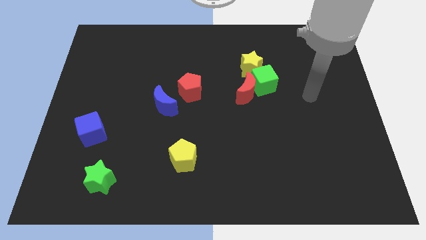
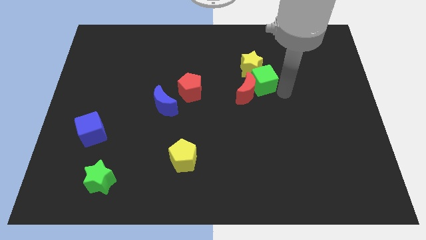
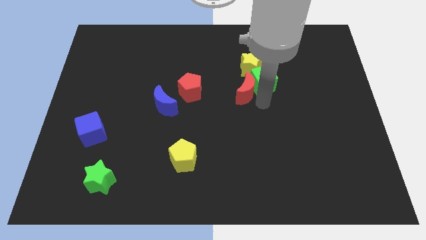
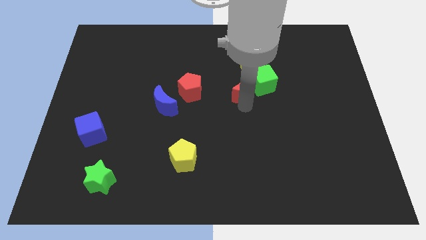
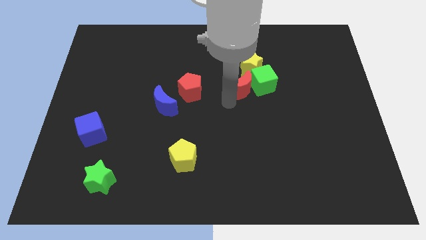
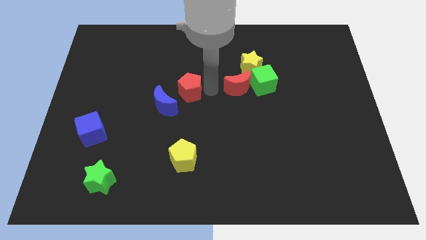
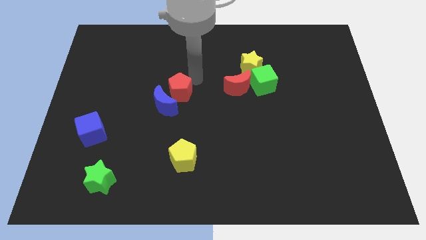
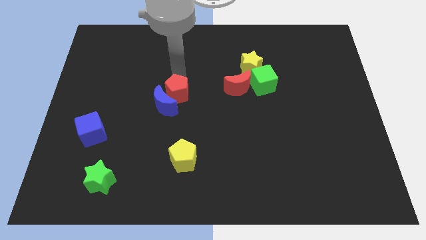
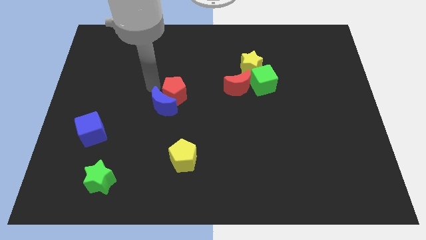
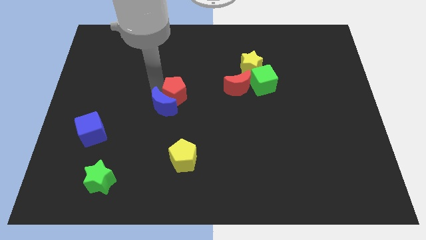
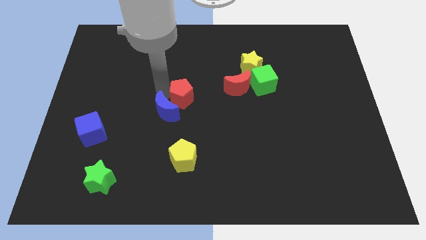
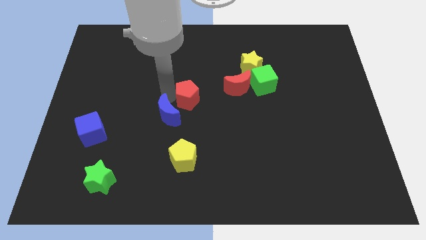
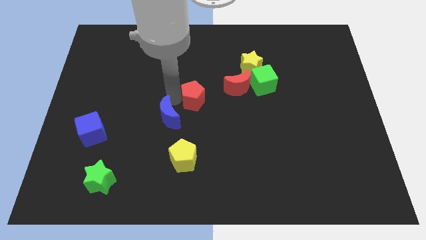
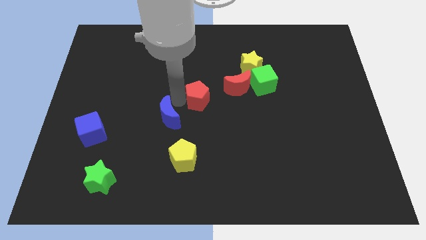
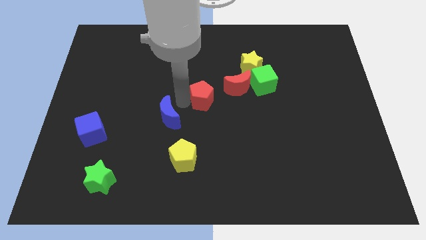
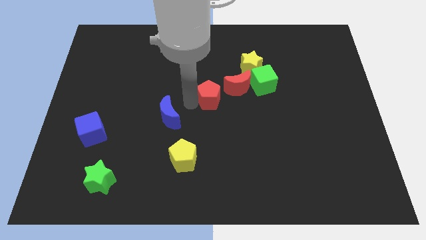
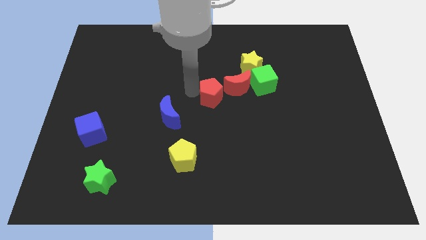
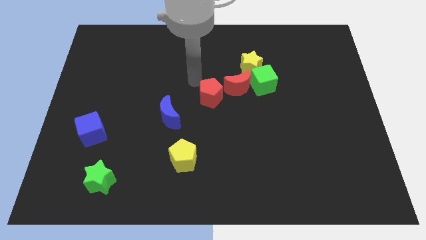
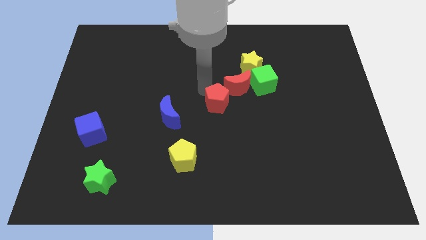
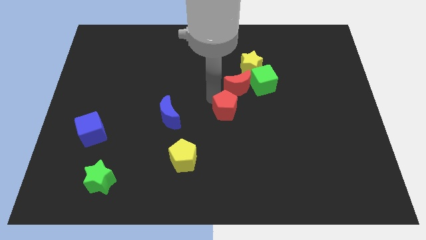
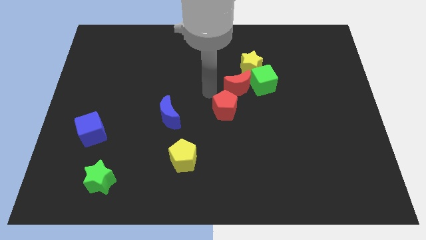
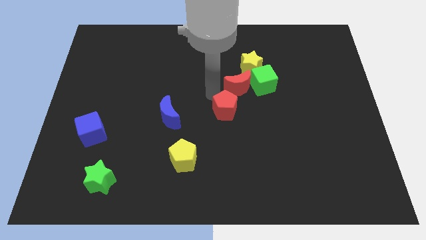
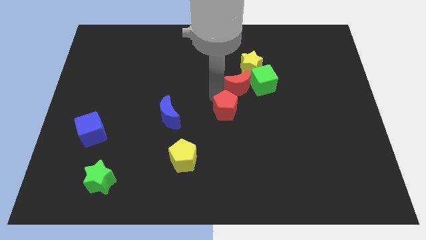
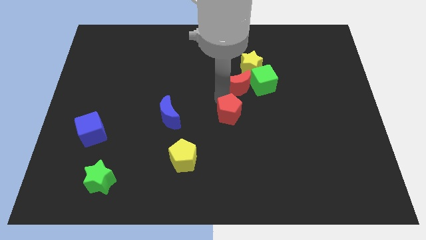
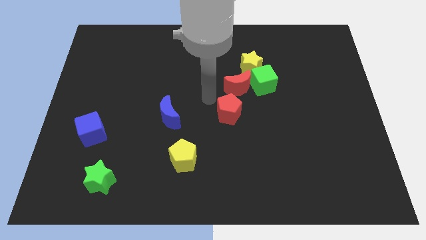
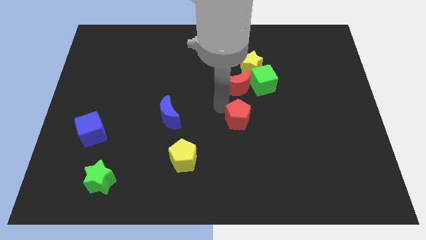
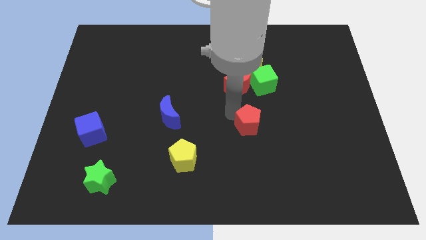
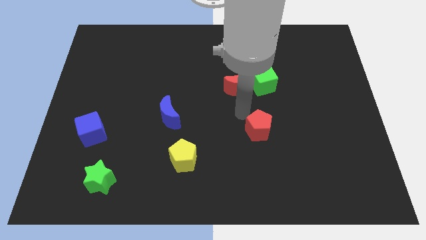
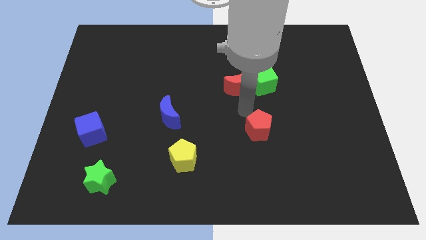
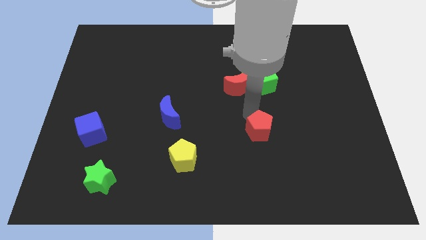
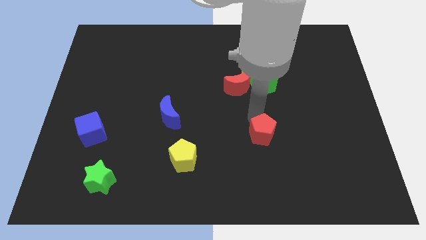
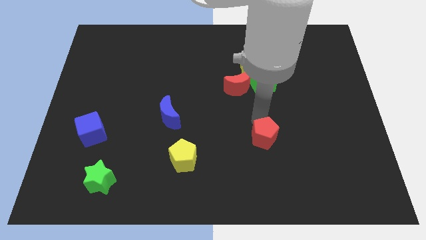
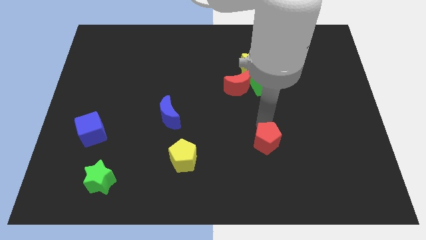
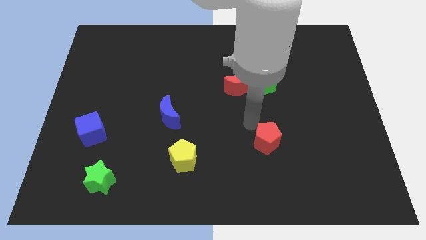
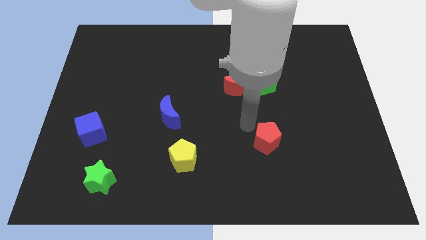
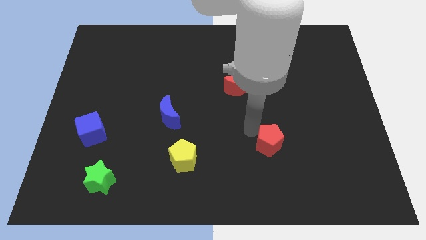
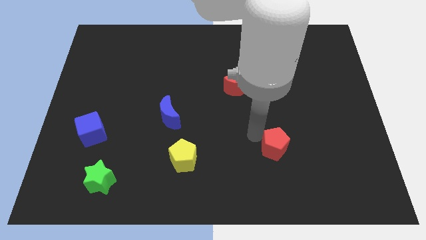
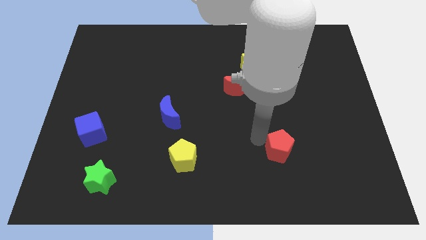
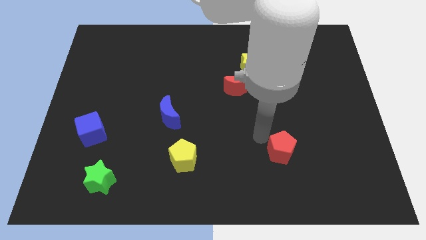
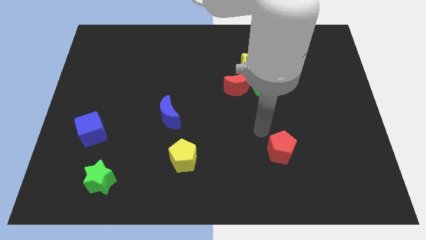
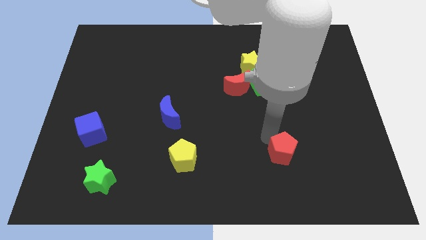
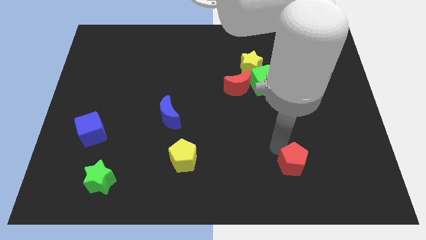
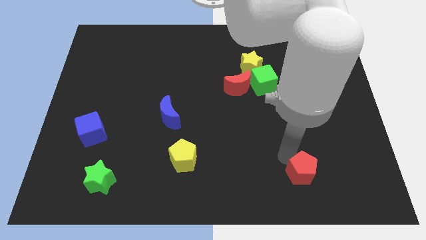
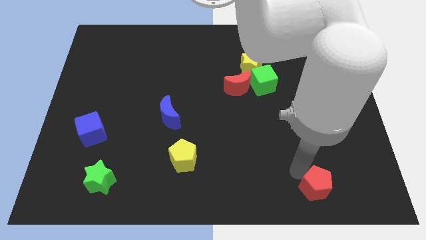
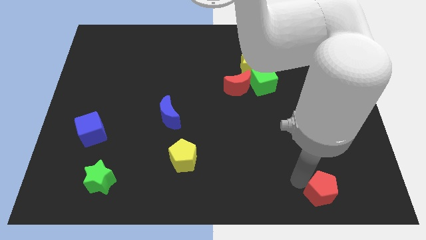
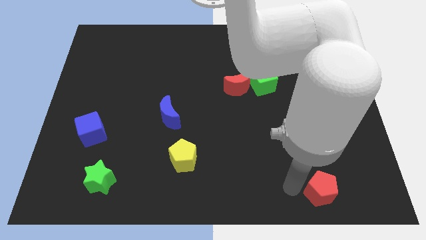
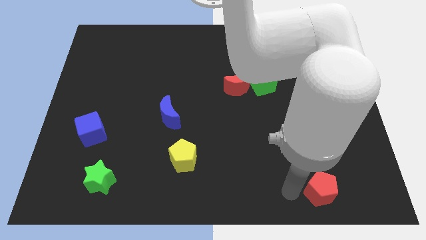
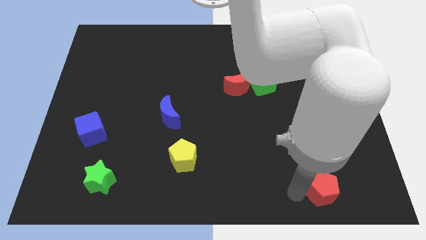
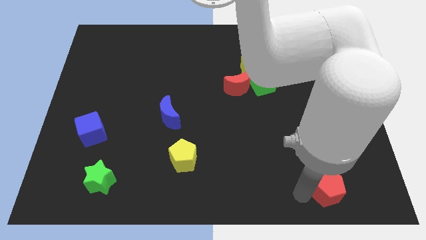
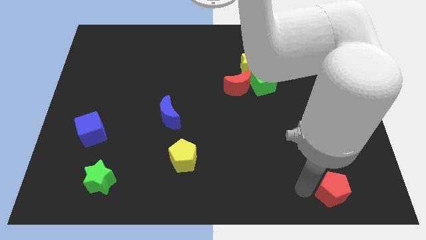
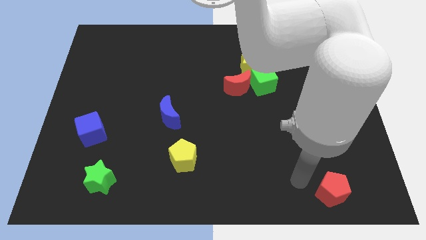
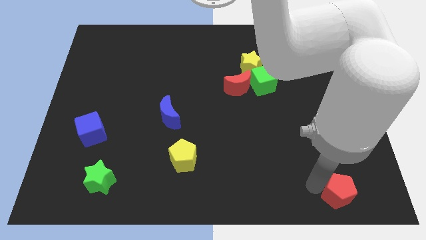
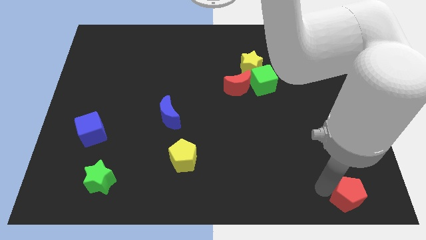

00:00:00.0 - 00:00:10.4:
move the red pentagon to the bottom right corner
